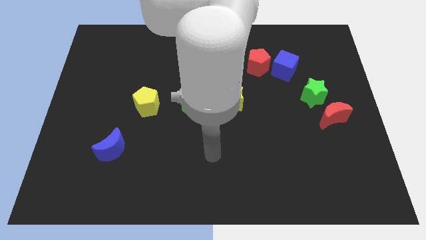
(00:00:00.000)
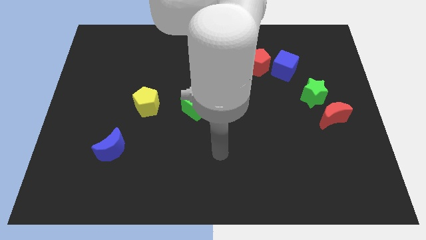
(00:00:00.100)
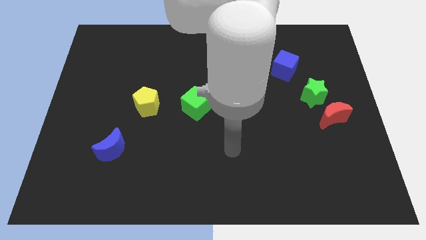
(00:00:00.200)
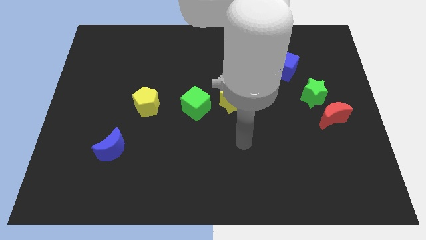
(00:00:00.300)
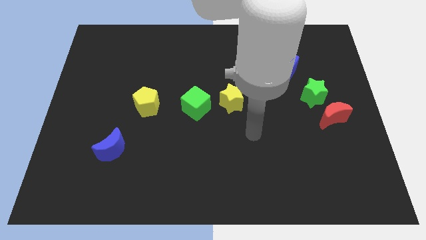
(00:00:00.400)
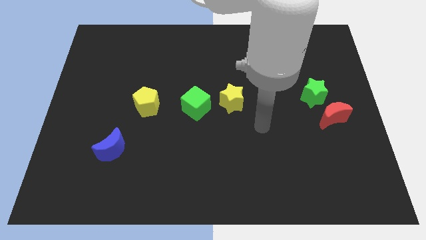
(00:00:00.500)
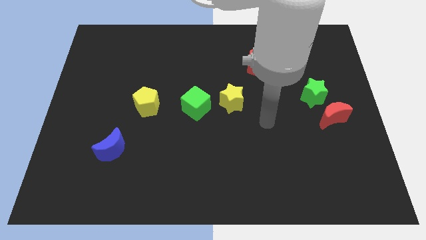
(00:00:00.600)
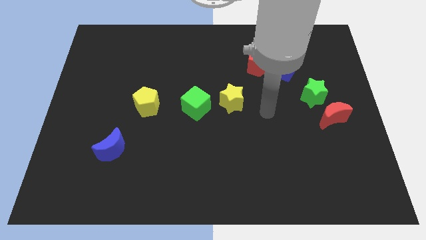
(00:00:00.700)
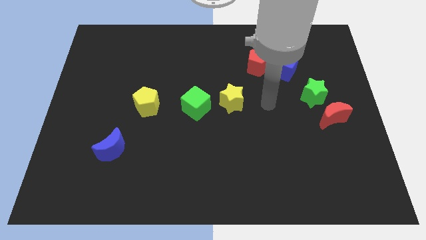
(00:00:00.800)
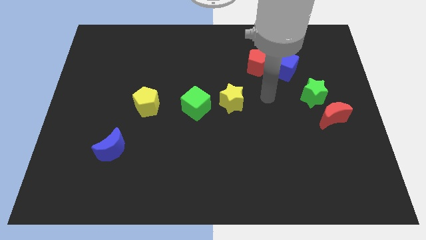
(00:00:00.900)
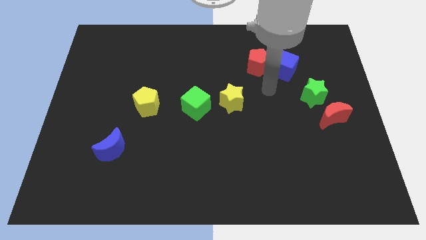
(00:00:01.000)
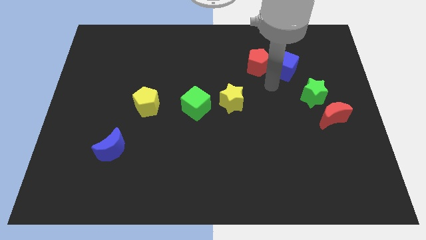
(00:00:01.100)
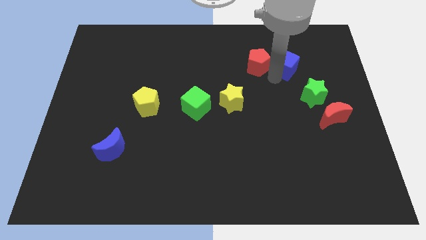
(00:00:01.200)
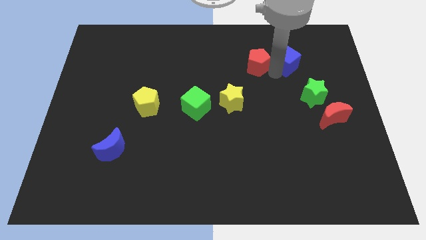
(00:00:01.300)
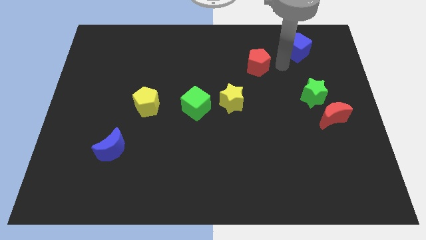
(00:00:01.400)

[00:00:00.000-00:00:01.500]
pull the red pentagon apart from the blue cube

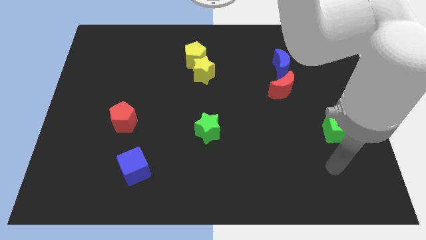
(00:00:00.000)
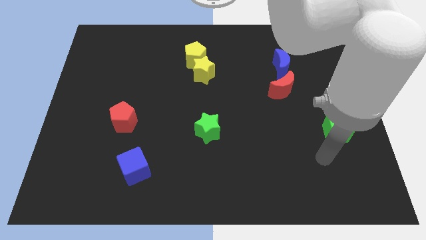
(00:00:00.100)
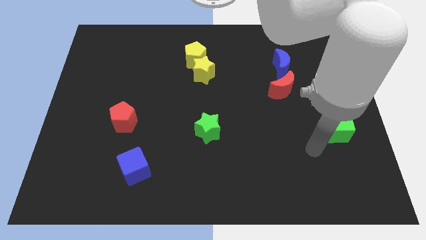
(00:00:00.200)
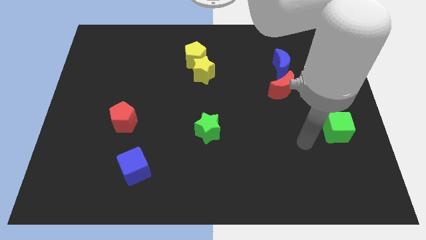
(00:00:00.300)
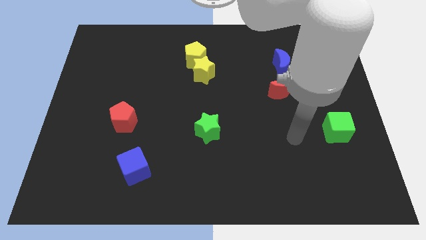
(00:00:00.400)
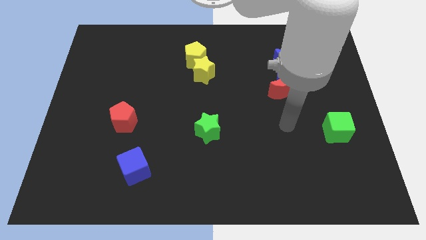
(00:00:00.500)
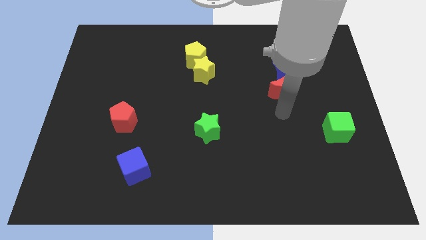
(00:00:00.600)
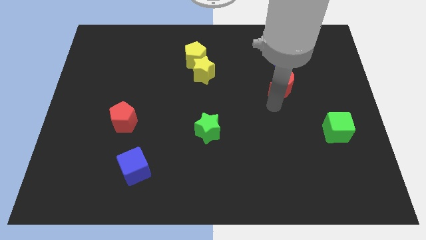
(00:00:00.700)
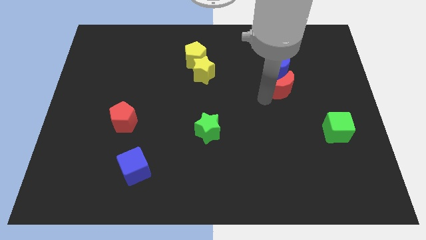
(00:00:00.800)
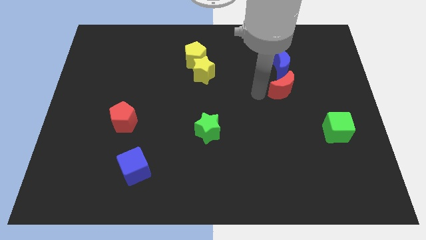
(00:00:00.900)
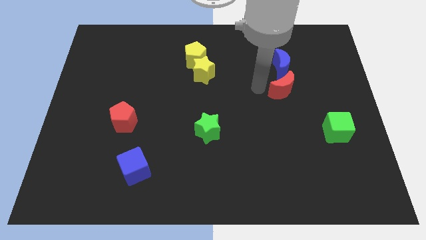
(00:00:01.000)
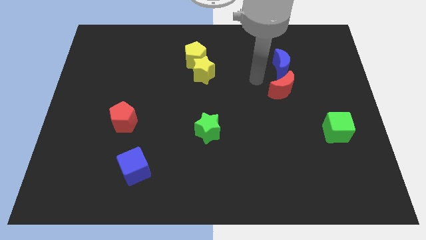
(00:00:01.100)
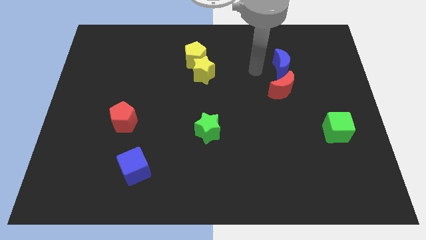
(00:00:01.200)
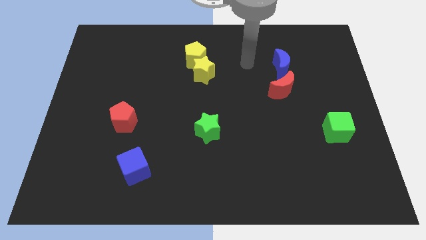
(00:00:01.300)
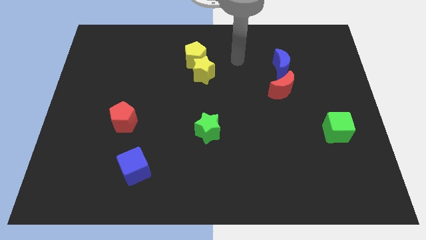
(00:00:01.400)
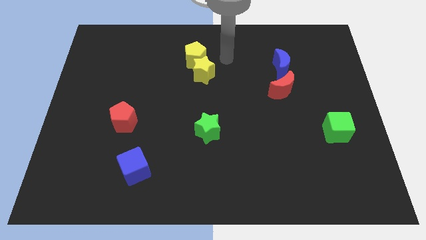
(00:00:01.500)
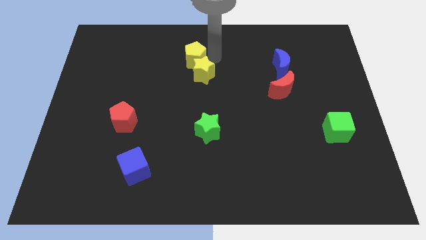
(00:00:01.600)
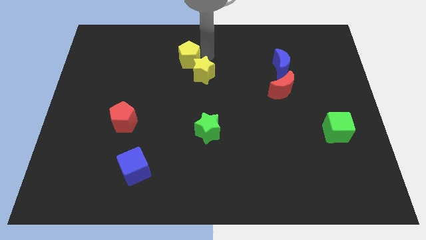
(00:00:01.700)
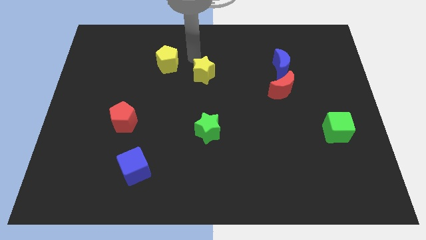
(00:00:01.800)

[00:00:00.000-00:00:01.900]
pull the yellow star apart from the yellow pentagon

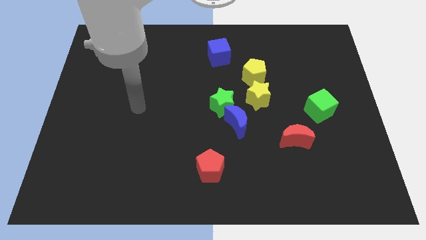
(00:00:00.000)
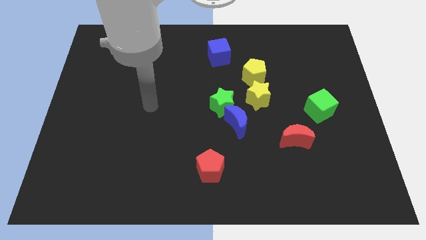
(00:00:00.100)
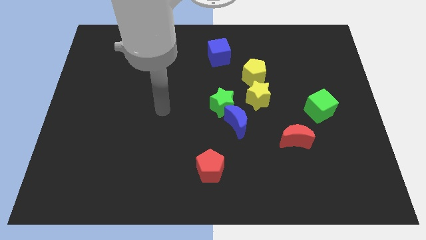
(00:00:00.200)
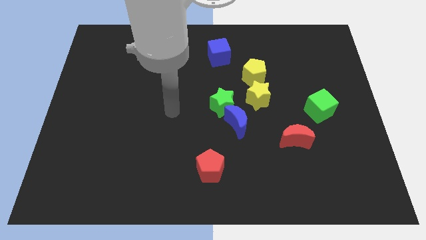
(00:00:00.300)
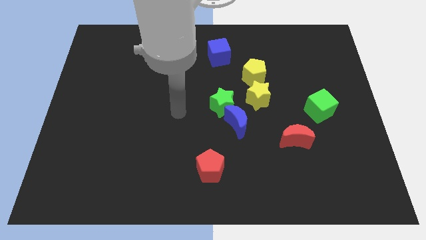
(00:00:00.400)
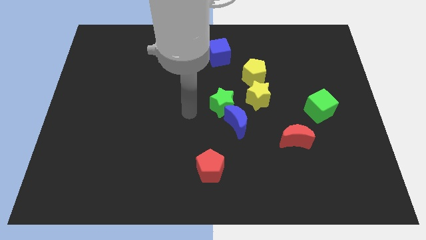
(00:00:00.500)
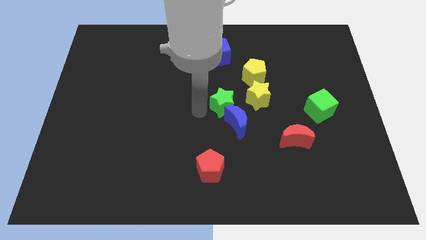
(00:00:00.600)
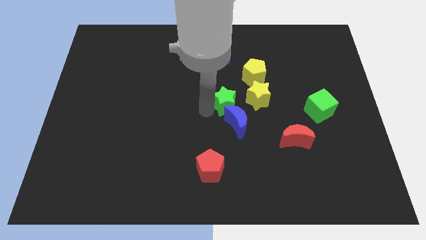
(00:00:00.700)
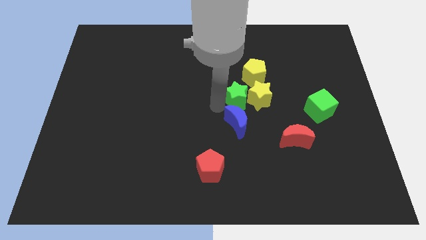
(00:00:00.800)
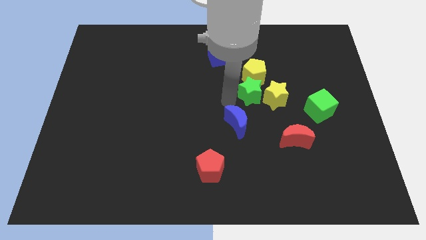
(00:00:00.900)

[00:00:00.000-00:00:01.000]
move the blue moon away from the green star and yellow star

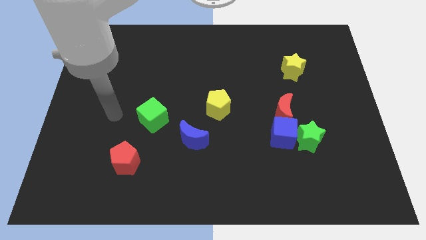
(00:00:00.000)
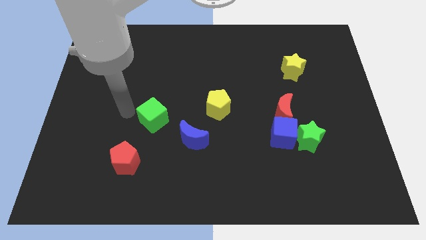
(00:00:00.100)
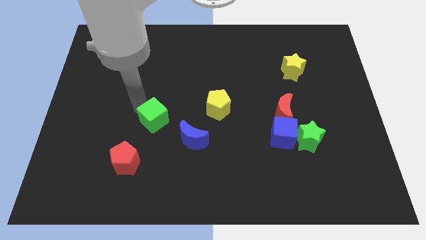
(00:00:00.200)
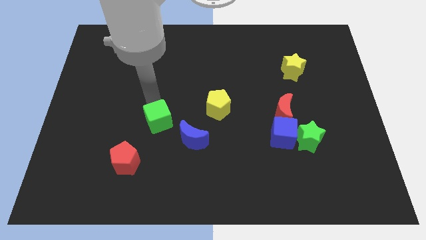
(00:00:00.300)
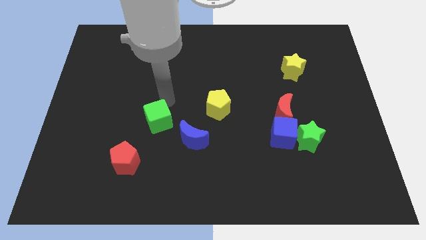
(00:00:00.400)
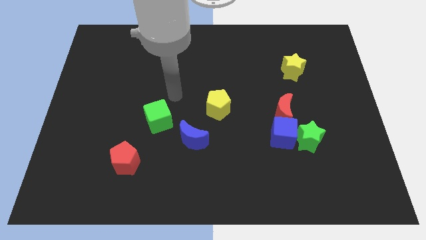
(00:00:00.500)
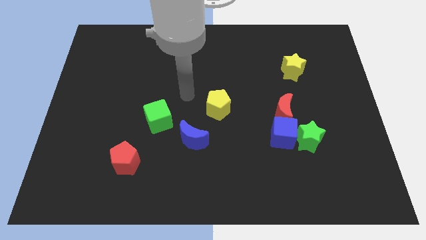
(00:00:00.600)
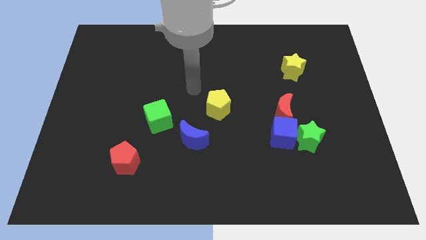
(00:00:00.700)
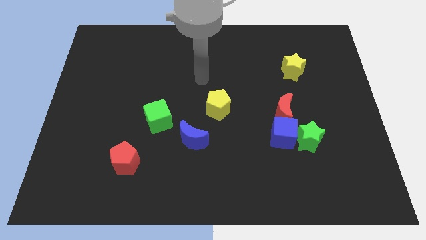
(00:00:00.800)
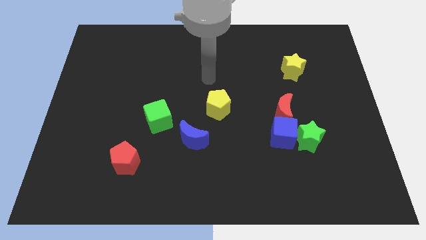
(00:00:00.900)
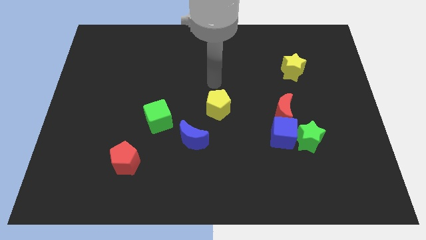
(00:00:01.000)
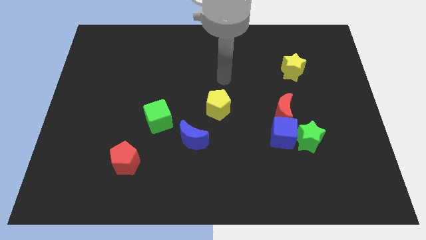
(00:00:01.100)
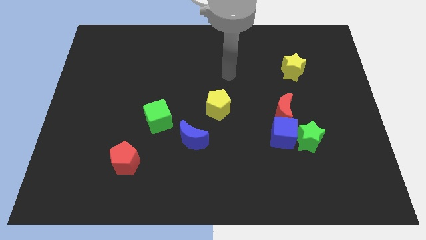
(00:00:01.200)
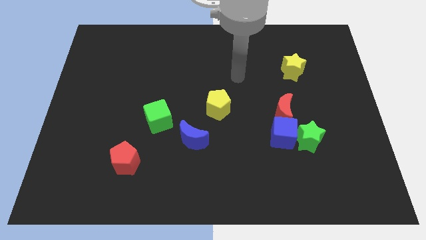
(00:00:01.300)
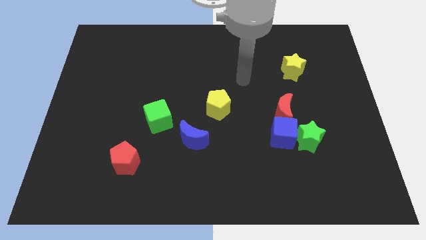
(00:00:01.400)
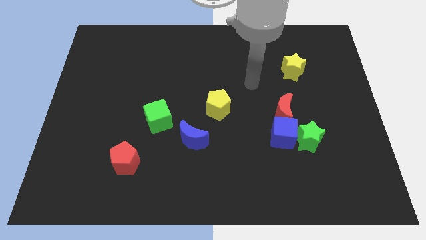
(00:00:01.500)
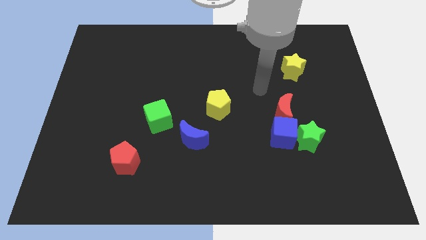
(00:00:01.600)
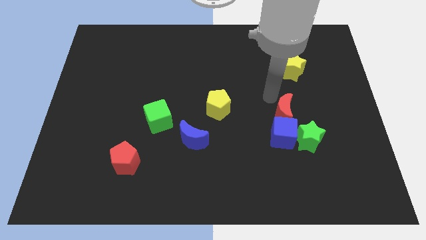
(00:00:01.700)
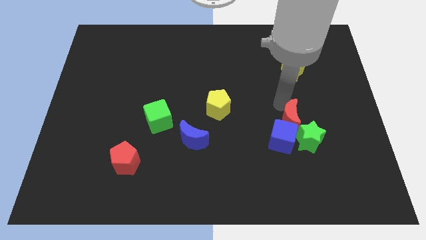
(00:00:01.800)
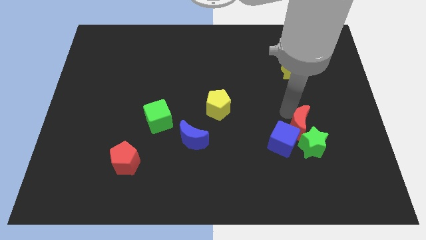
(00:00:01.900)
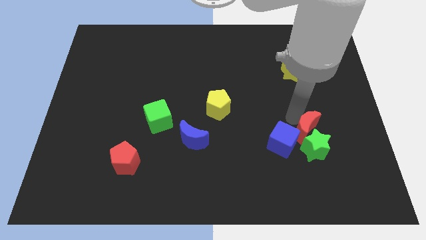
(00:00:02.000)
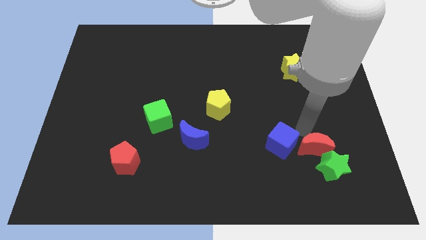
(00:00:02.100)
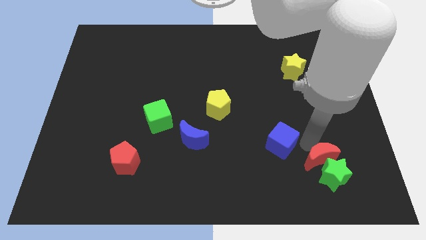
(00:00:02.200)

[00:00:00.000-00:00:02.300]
separate the blue cube from the green star and red moon

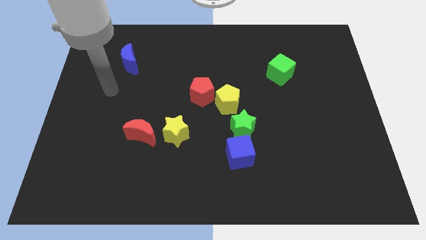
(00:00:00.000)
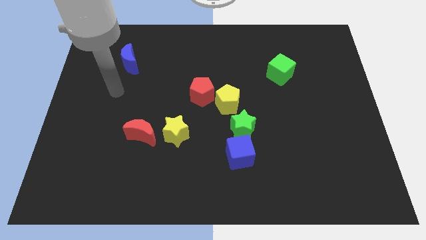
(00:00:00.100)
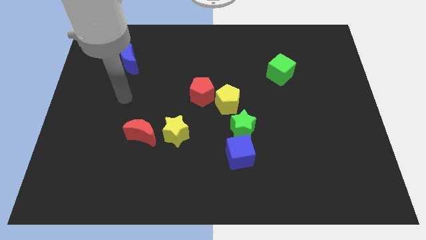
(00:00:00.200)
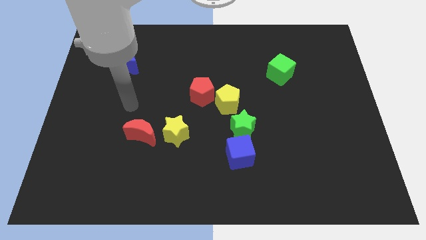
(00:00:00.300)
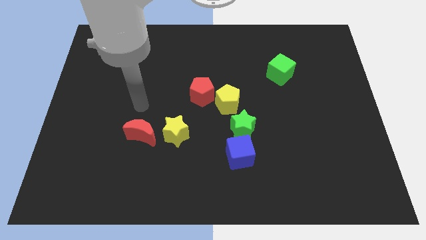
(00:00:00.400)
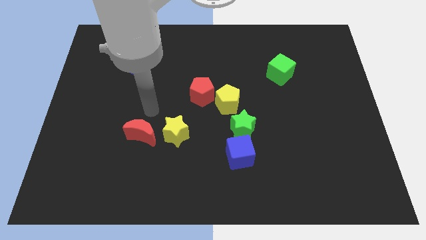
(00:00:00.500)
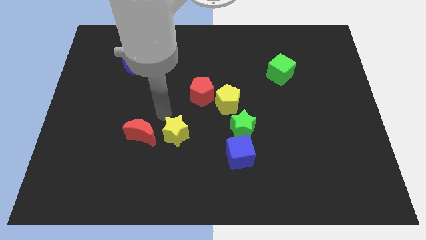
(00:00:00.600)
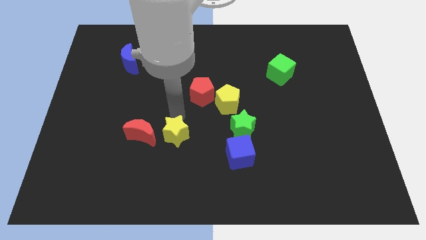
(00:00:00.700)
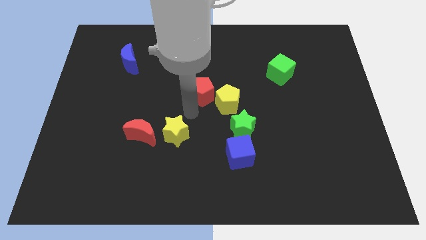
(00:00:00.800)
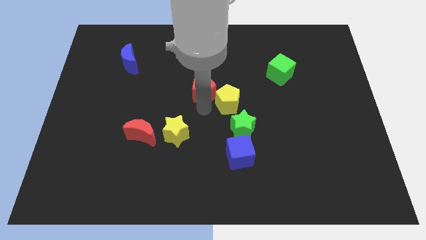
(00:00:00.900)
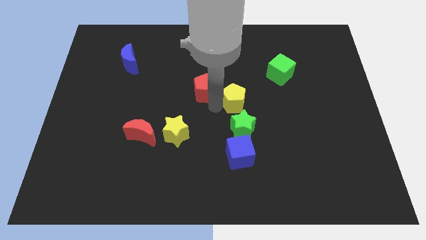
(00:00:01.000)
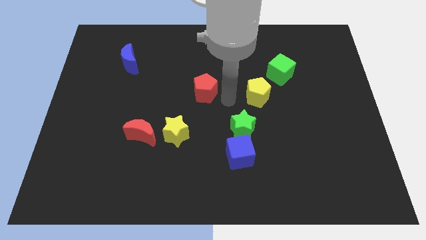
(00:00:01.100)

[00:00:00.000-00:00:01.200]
pull the red pentagon apart from the yellow pentagon

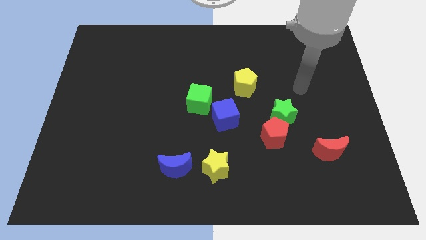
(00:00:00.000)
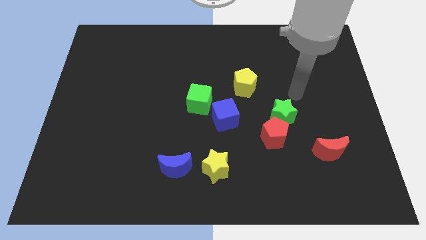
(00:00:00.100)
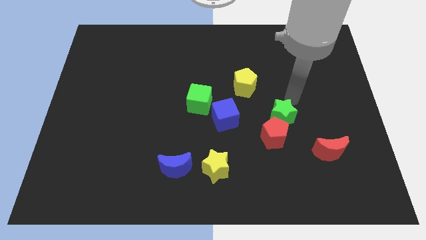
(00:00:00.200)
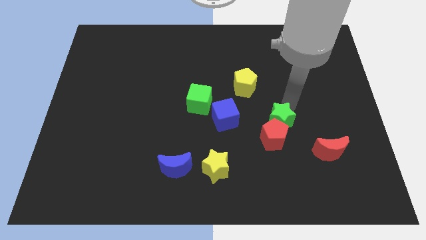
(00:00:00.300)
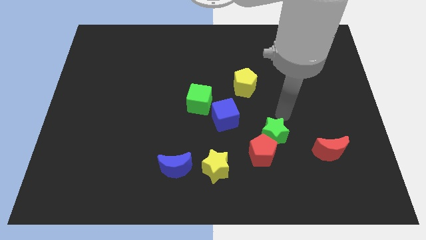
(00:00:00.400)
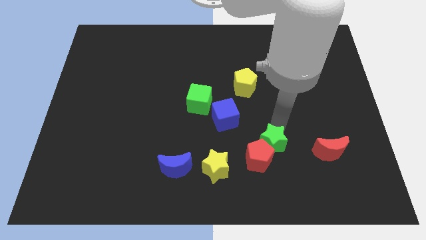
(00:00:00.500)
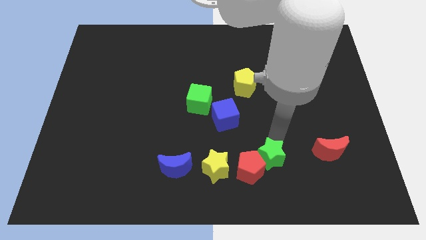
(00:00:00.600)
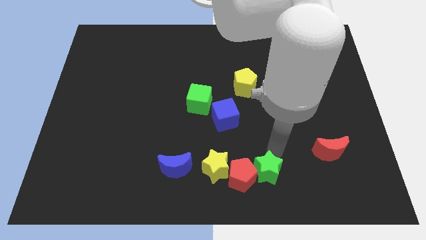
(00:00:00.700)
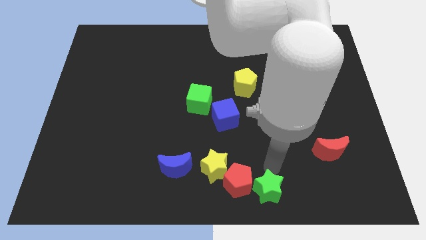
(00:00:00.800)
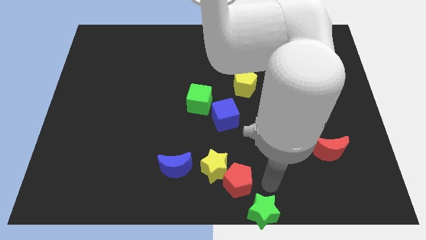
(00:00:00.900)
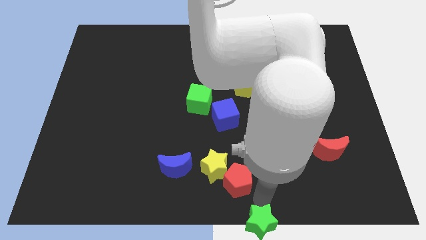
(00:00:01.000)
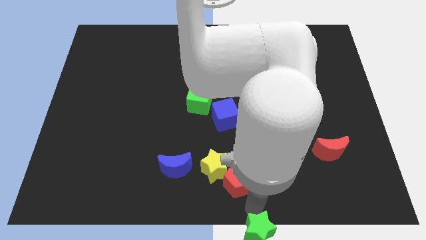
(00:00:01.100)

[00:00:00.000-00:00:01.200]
separate the red pentagon from the green star
